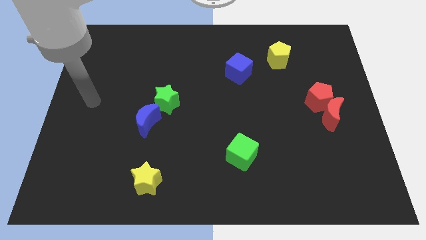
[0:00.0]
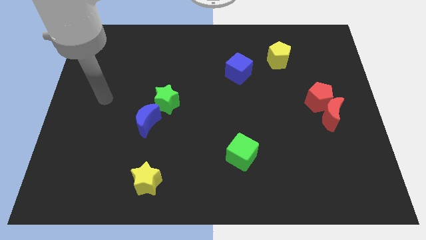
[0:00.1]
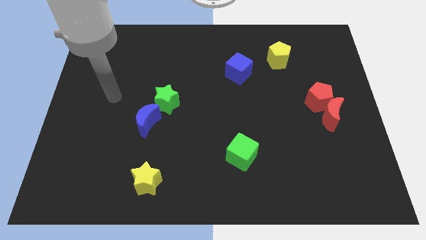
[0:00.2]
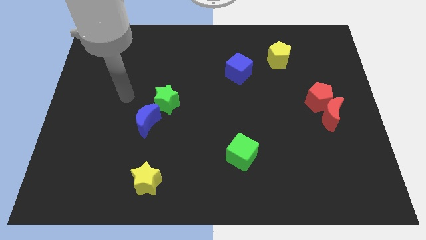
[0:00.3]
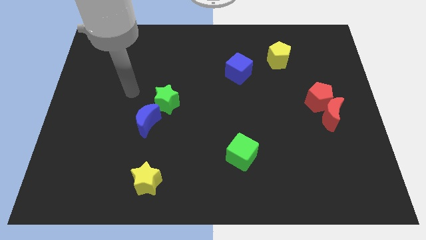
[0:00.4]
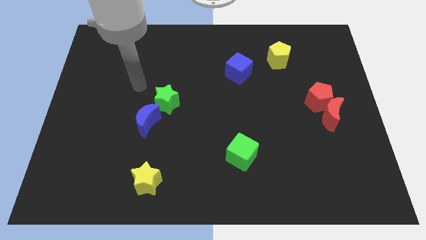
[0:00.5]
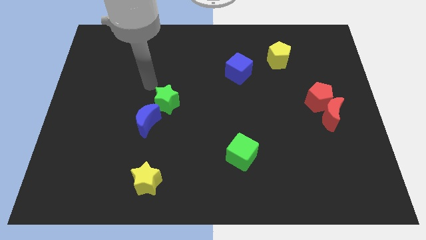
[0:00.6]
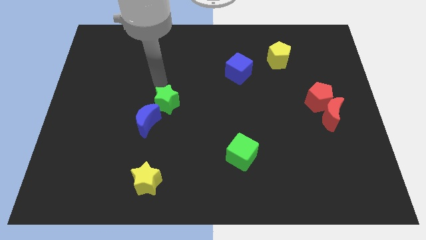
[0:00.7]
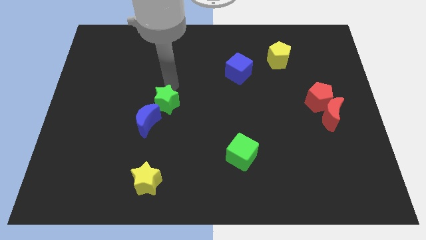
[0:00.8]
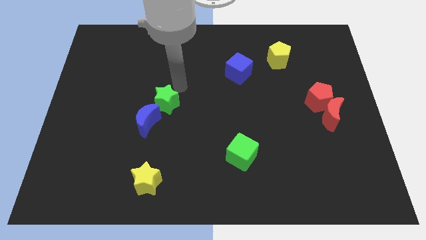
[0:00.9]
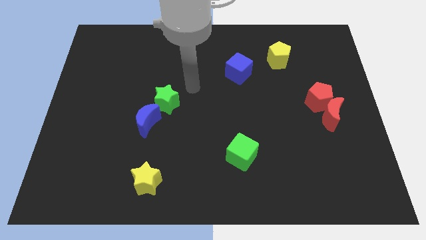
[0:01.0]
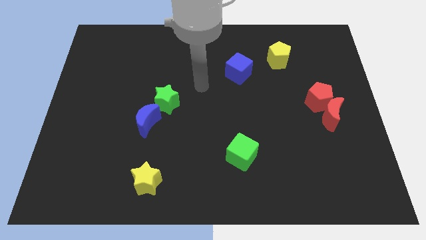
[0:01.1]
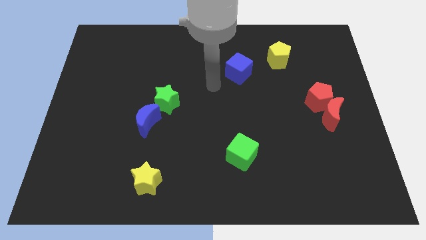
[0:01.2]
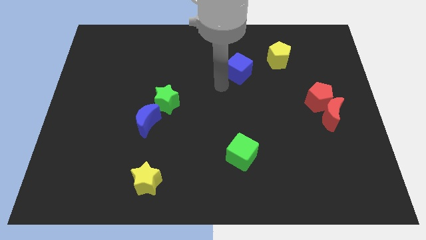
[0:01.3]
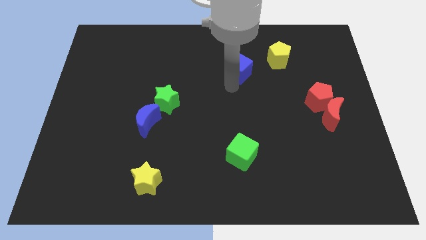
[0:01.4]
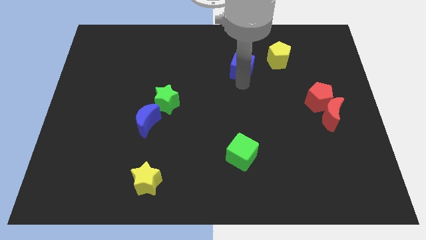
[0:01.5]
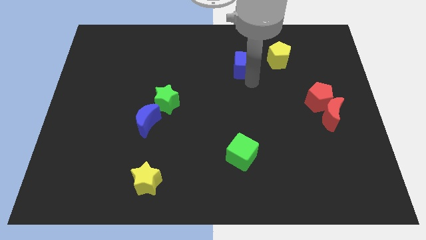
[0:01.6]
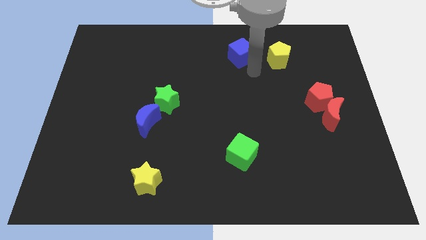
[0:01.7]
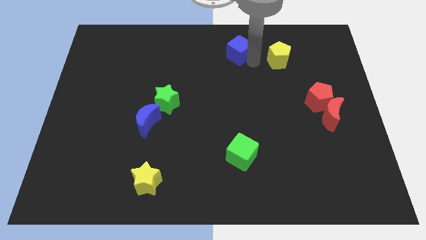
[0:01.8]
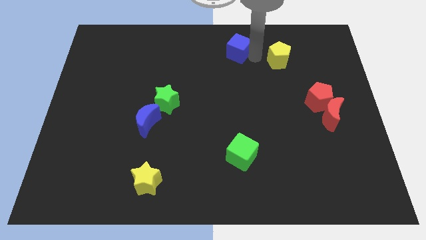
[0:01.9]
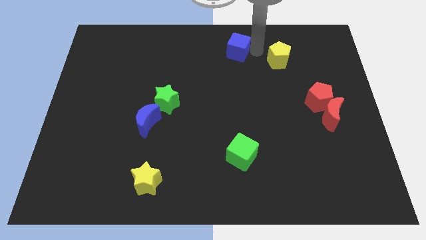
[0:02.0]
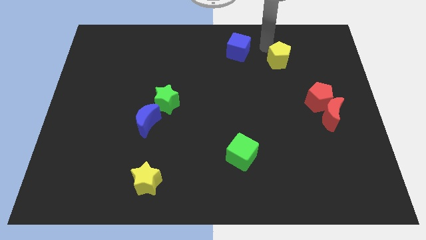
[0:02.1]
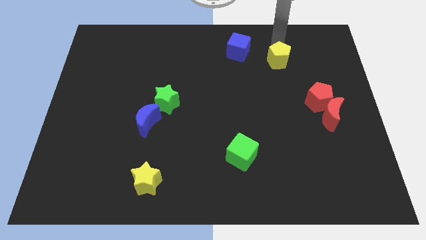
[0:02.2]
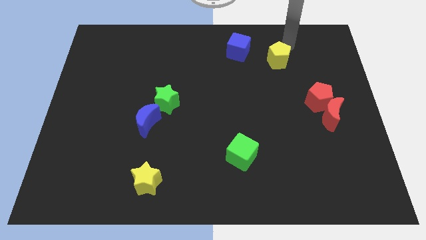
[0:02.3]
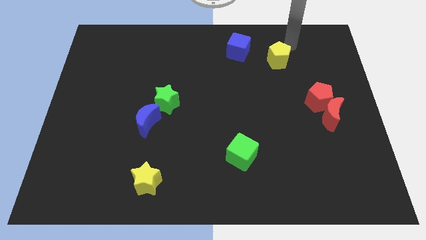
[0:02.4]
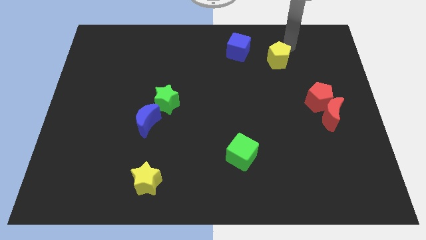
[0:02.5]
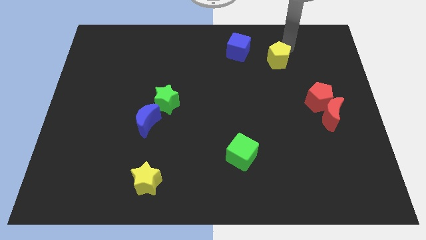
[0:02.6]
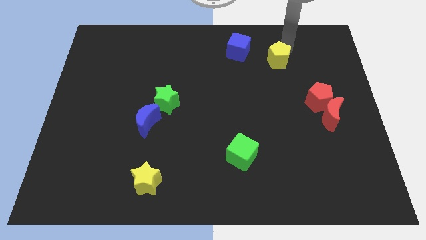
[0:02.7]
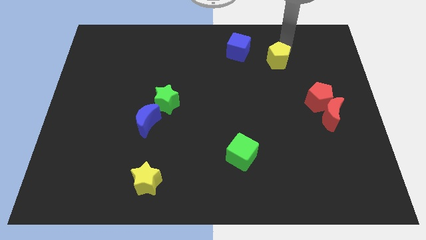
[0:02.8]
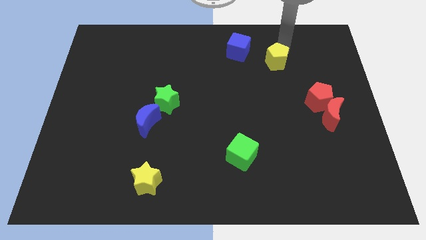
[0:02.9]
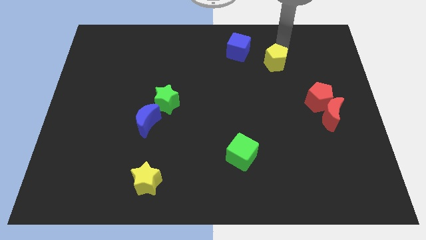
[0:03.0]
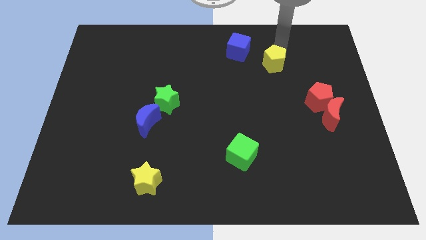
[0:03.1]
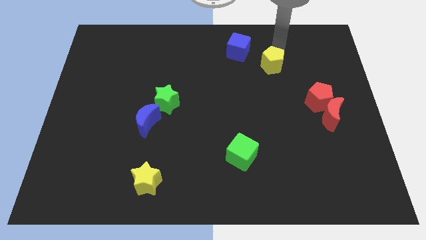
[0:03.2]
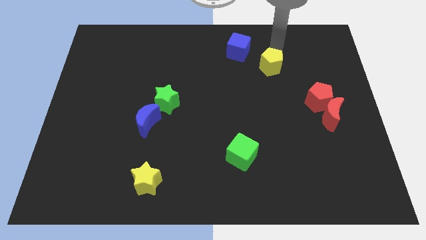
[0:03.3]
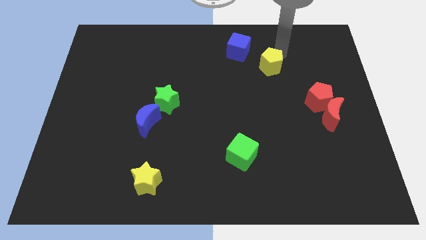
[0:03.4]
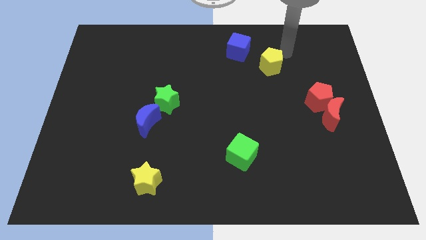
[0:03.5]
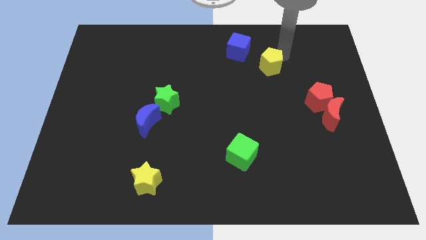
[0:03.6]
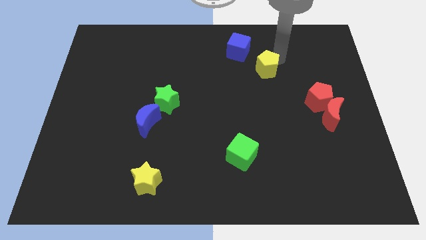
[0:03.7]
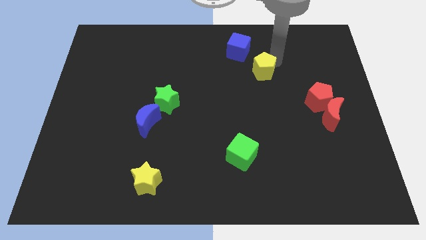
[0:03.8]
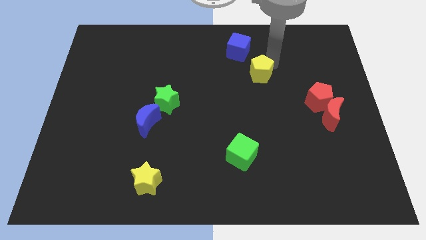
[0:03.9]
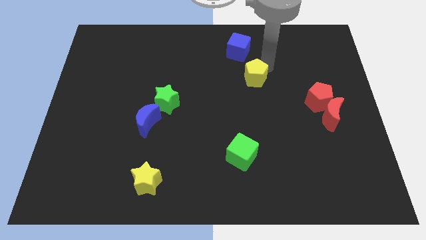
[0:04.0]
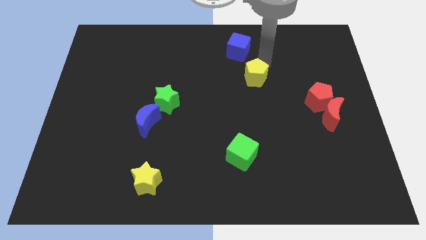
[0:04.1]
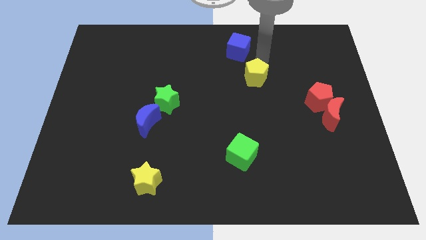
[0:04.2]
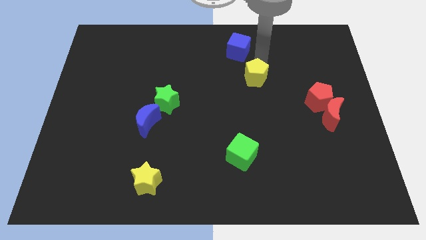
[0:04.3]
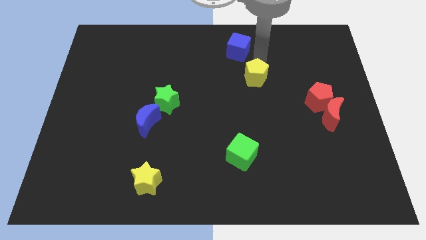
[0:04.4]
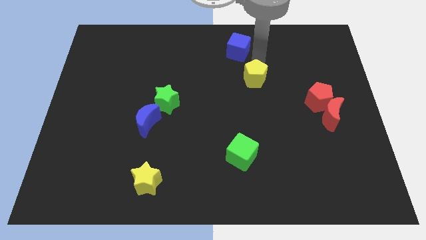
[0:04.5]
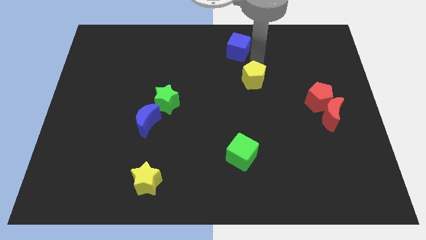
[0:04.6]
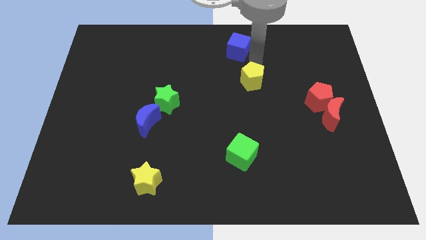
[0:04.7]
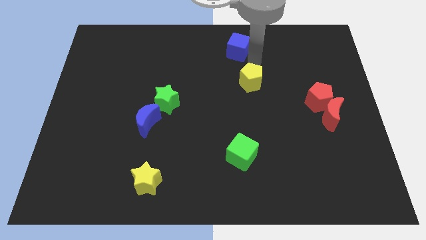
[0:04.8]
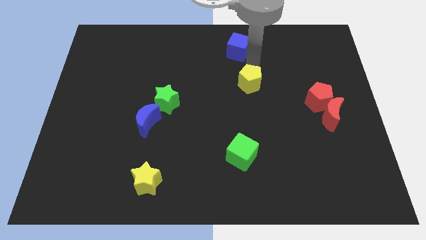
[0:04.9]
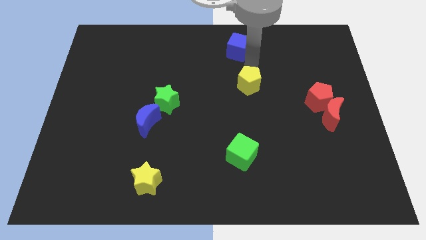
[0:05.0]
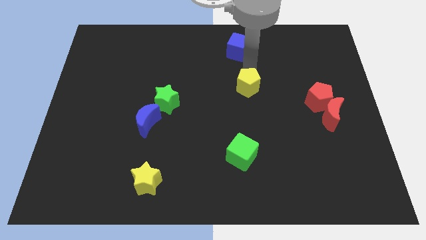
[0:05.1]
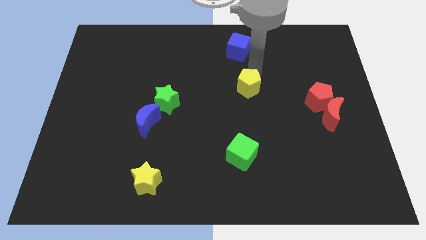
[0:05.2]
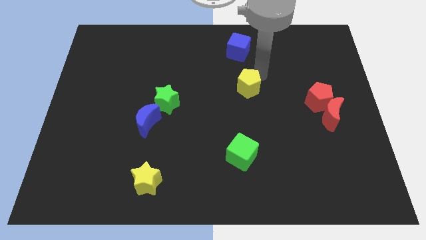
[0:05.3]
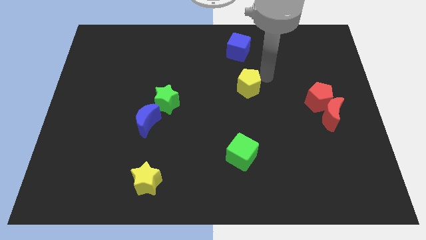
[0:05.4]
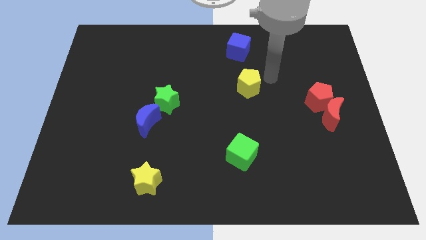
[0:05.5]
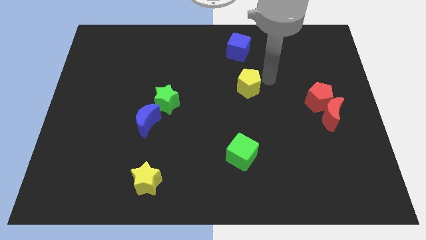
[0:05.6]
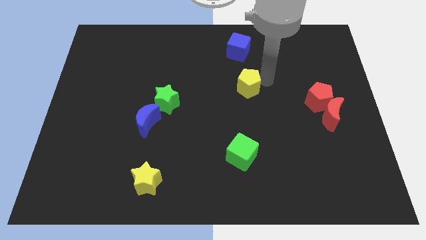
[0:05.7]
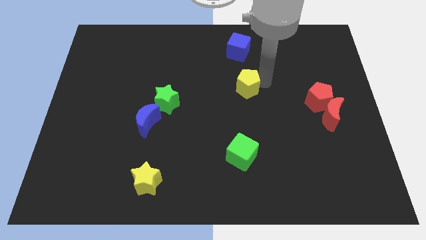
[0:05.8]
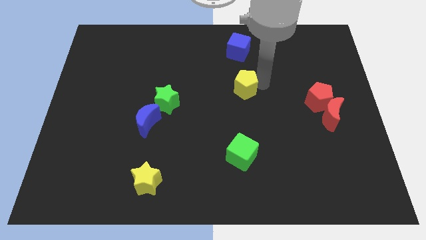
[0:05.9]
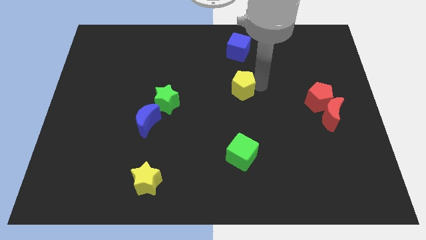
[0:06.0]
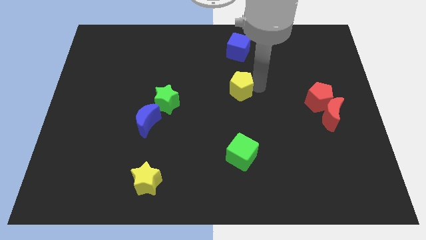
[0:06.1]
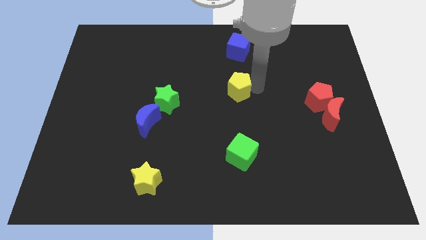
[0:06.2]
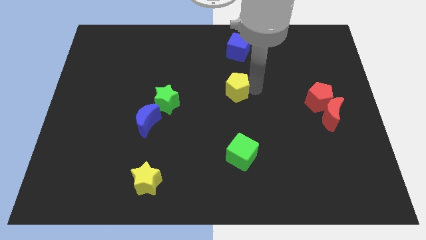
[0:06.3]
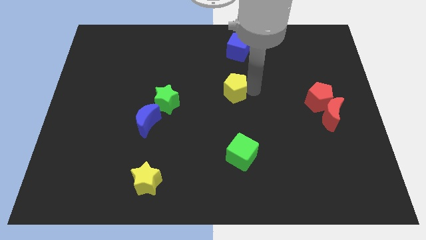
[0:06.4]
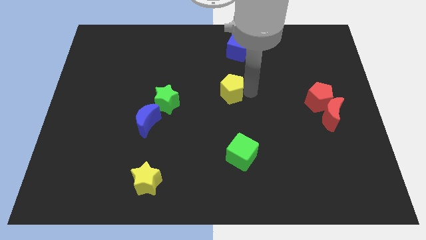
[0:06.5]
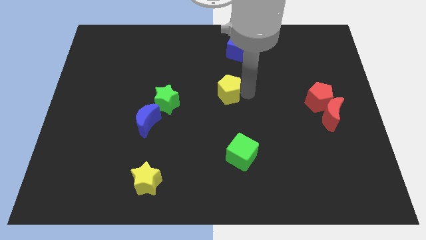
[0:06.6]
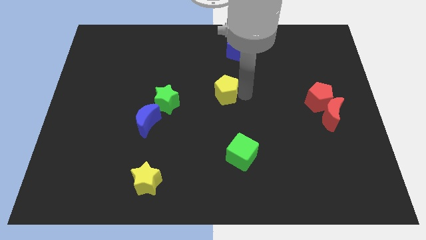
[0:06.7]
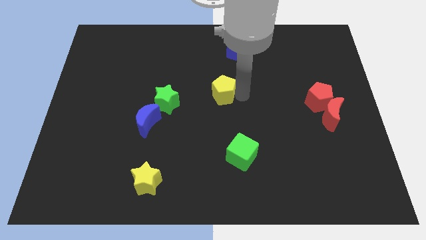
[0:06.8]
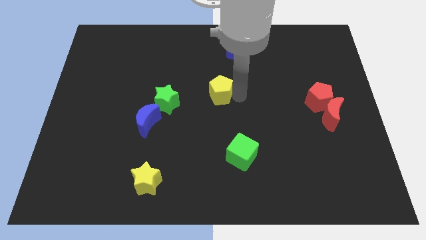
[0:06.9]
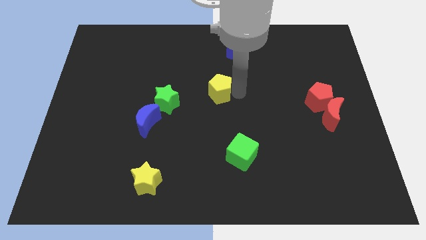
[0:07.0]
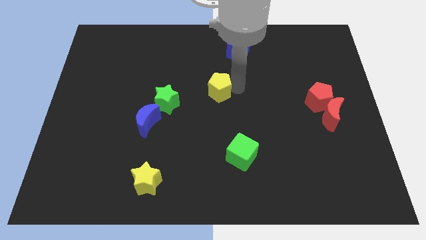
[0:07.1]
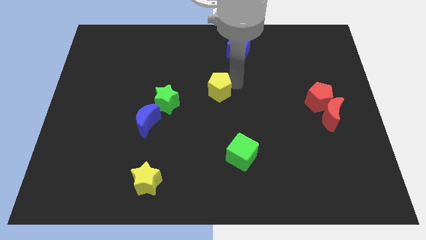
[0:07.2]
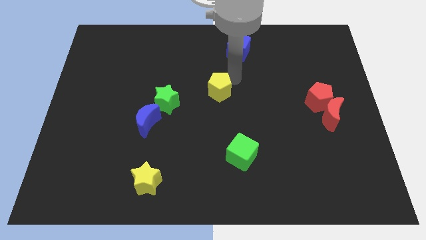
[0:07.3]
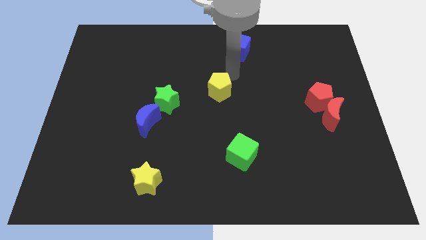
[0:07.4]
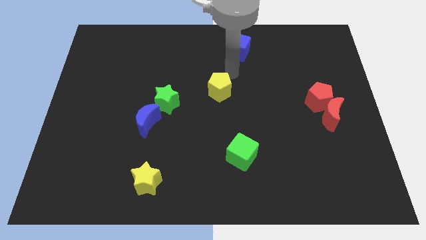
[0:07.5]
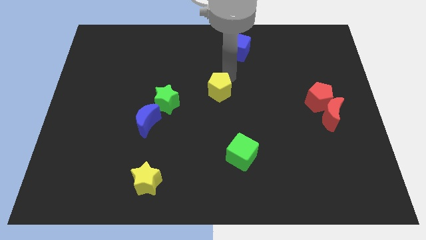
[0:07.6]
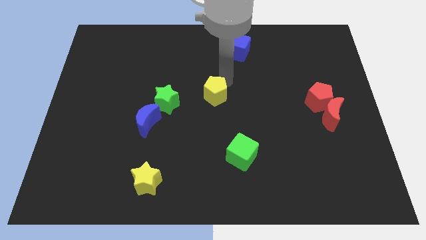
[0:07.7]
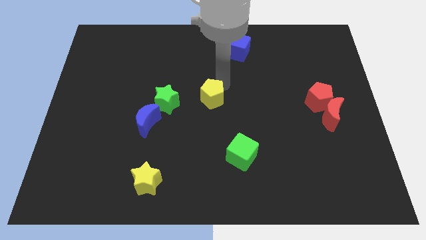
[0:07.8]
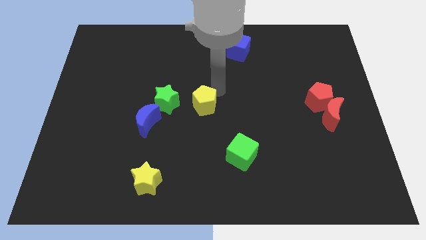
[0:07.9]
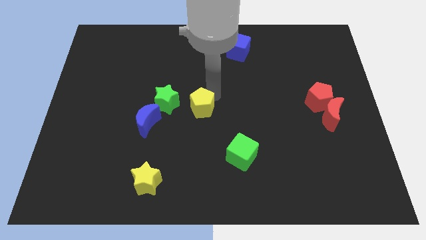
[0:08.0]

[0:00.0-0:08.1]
slide the yellow pentagon to the bottom right side of the green star

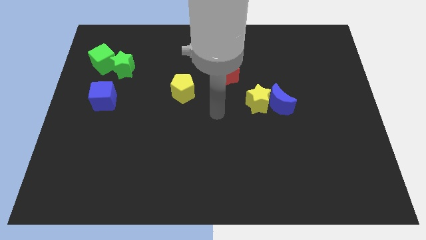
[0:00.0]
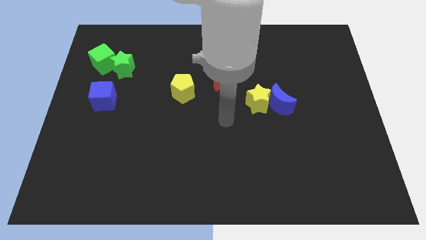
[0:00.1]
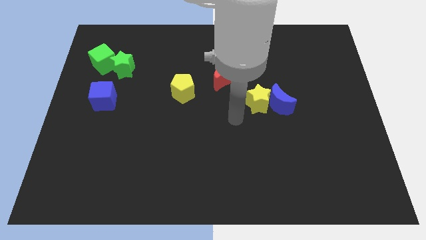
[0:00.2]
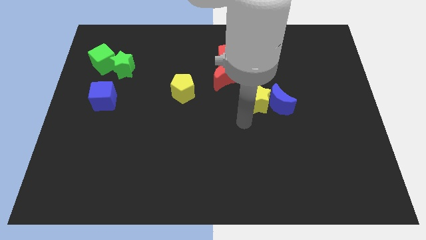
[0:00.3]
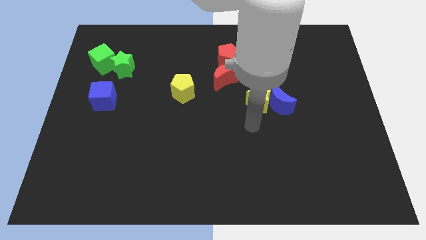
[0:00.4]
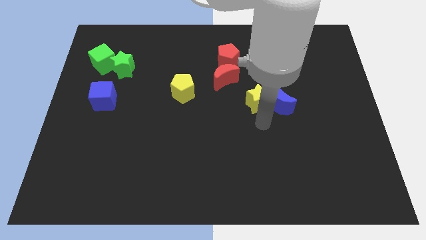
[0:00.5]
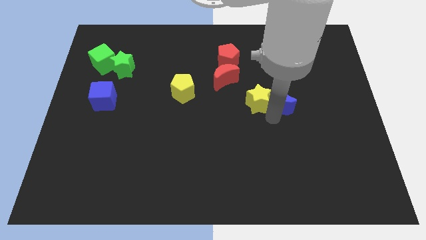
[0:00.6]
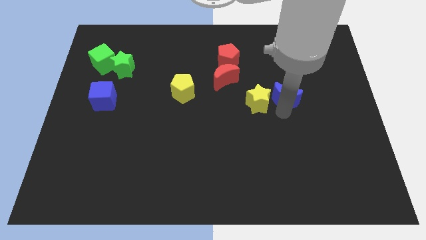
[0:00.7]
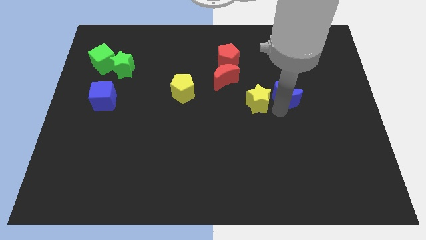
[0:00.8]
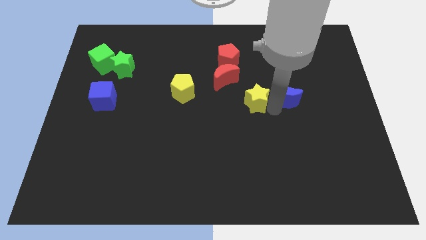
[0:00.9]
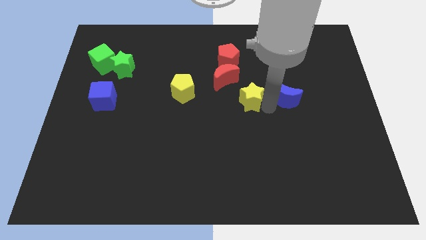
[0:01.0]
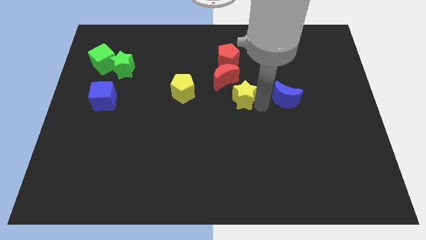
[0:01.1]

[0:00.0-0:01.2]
put the yellow star to the right of the yellow pentagon
